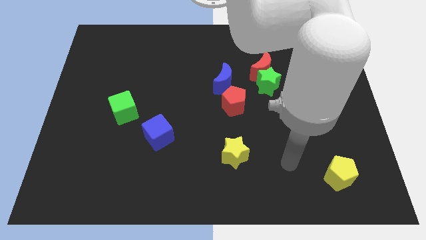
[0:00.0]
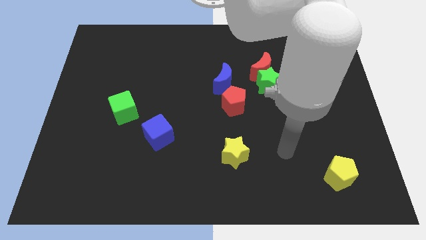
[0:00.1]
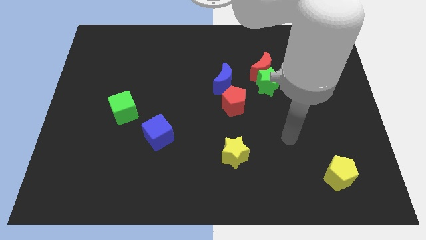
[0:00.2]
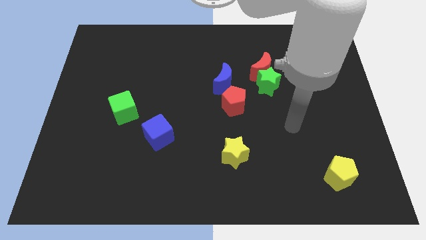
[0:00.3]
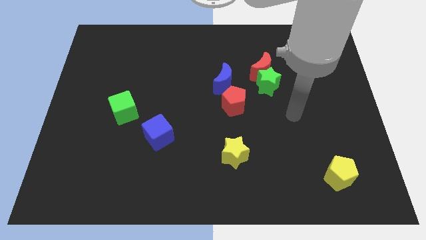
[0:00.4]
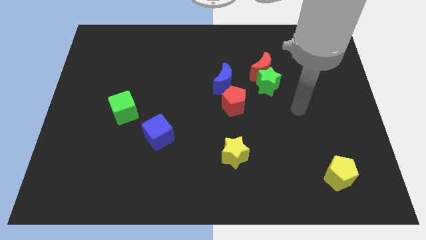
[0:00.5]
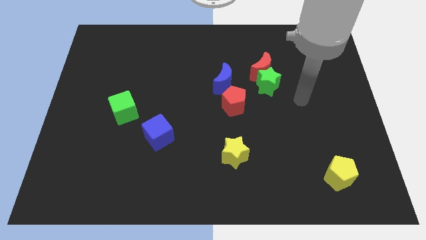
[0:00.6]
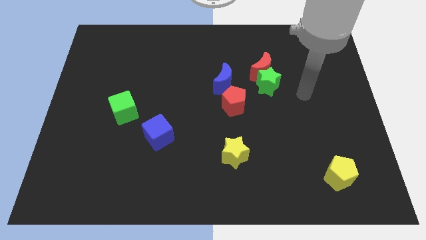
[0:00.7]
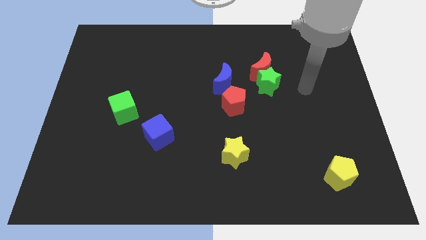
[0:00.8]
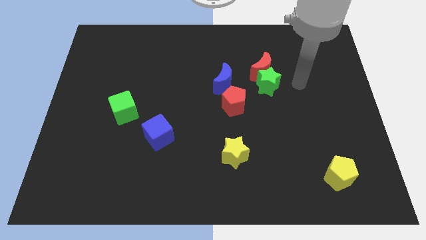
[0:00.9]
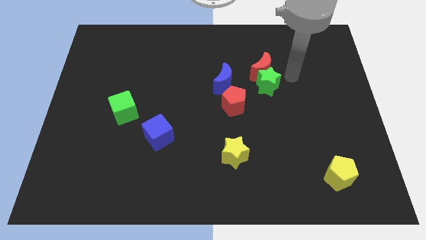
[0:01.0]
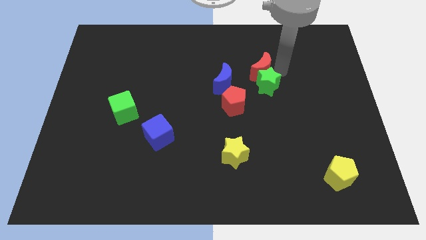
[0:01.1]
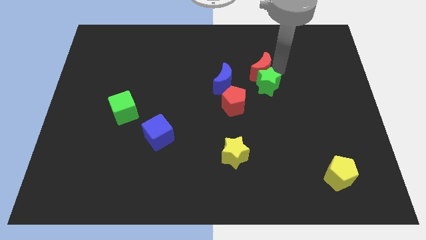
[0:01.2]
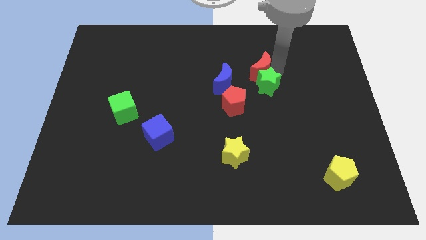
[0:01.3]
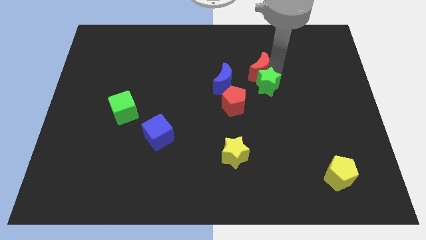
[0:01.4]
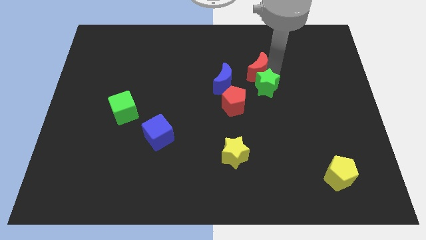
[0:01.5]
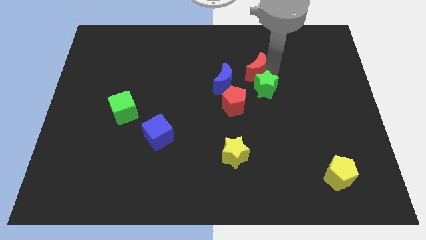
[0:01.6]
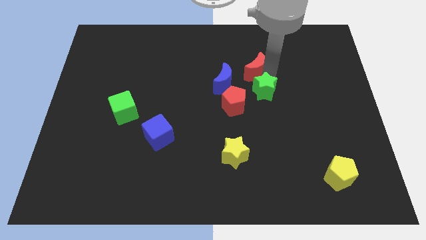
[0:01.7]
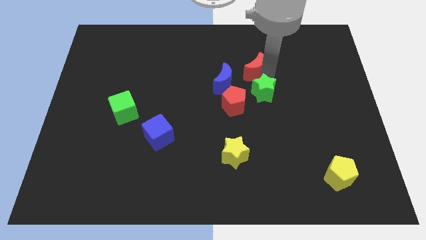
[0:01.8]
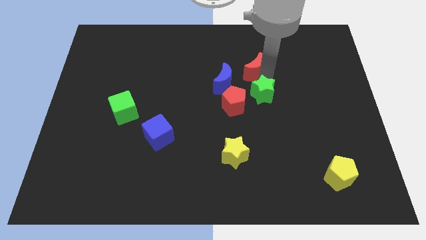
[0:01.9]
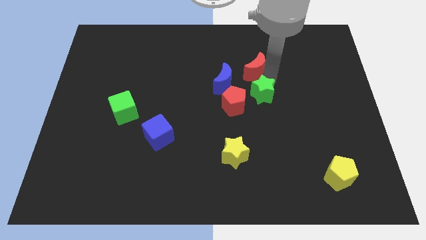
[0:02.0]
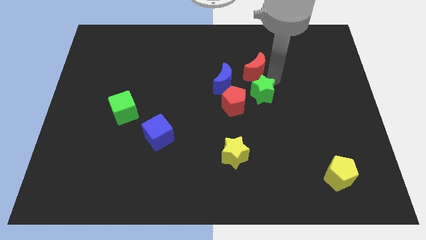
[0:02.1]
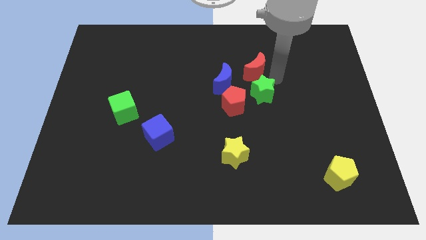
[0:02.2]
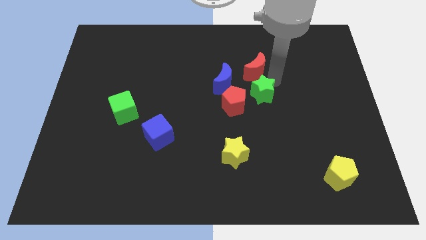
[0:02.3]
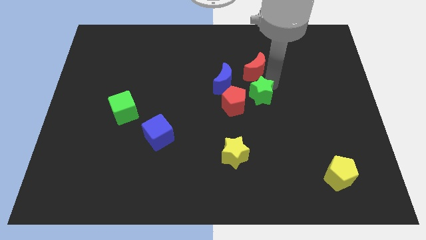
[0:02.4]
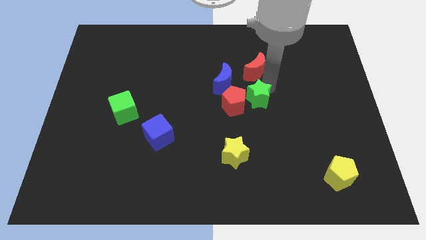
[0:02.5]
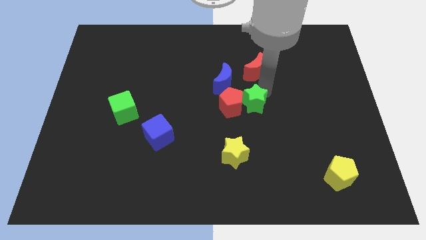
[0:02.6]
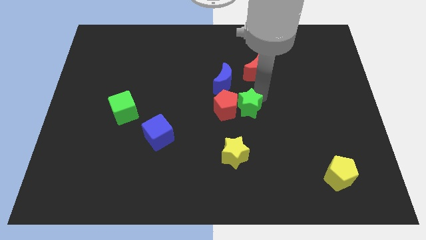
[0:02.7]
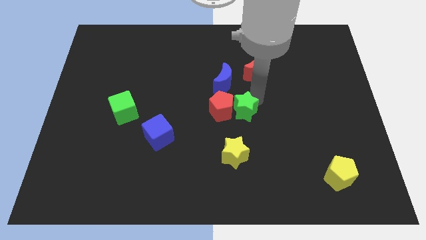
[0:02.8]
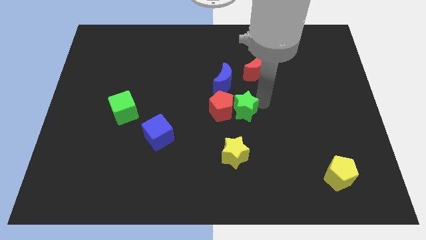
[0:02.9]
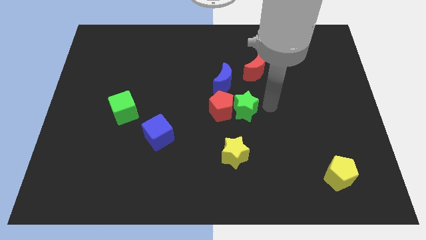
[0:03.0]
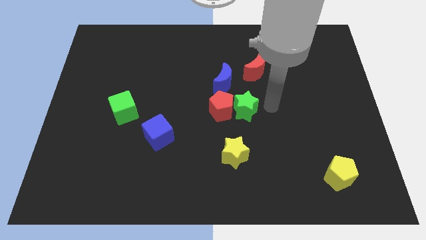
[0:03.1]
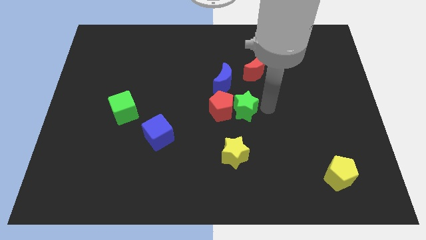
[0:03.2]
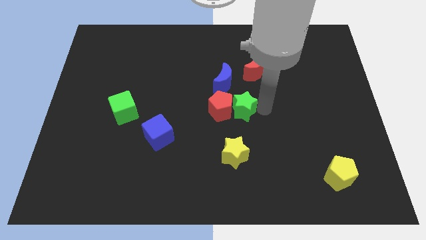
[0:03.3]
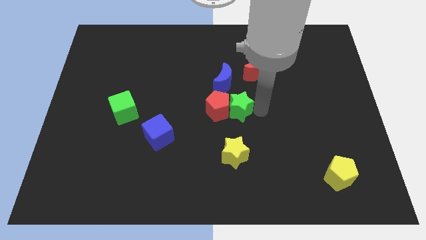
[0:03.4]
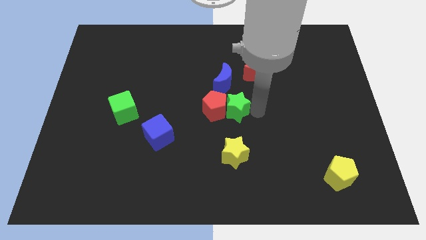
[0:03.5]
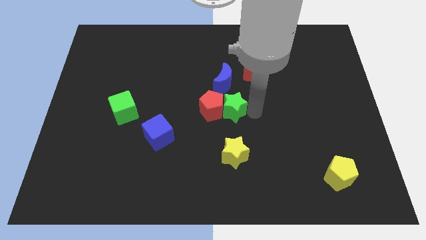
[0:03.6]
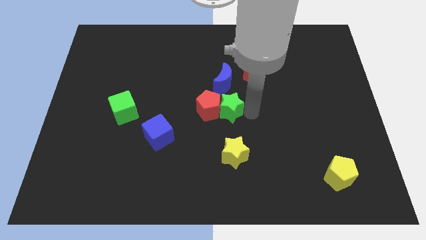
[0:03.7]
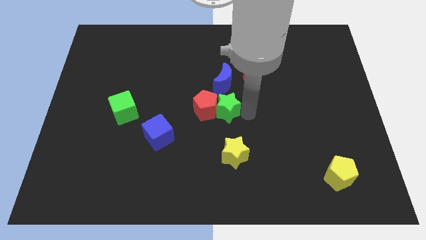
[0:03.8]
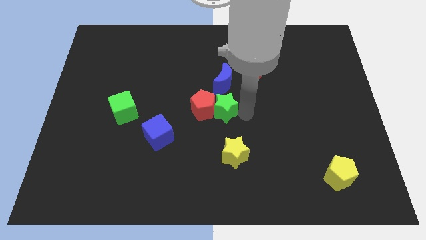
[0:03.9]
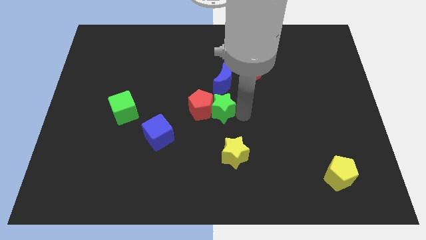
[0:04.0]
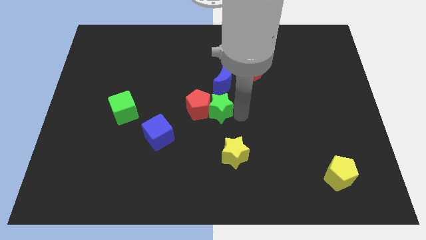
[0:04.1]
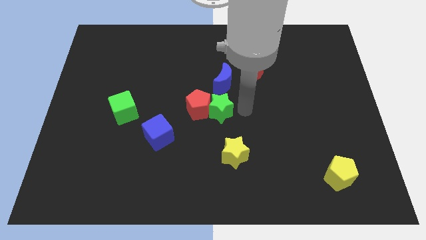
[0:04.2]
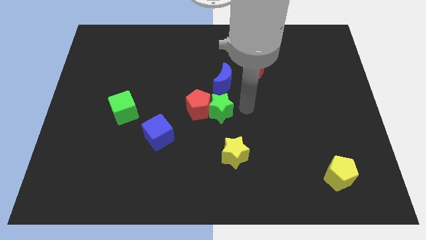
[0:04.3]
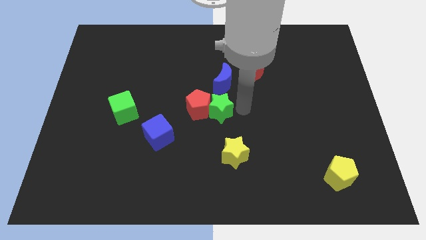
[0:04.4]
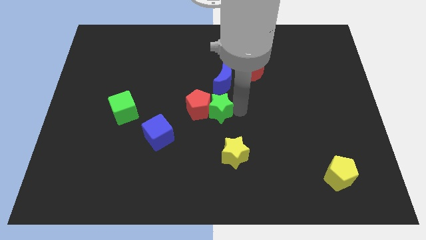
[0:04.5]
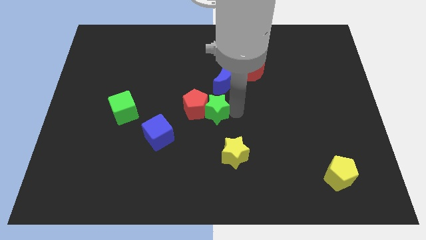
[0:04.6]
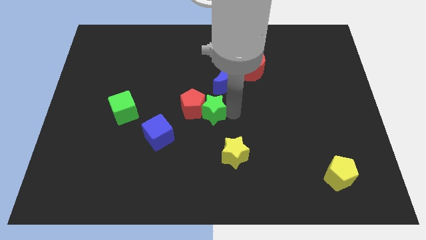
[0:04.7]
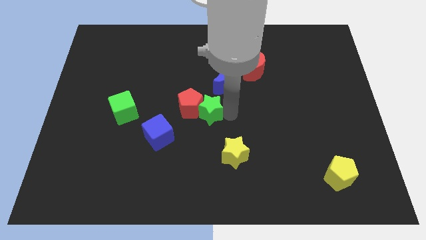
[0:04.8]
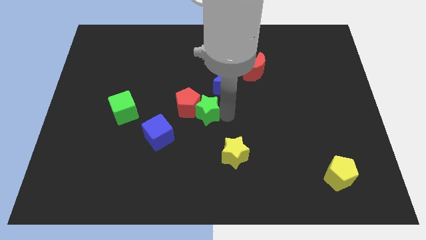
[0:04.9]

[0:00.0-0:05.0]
move the green star diagonally up and to the right of the blue cube

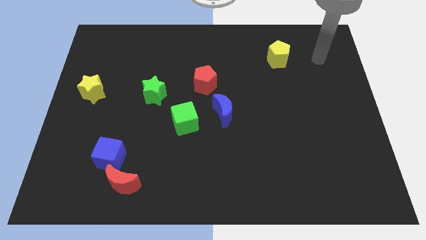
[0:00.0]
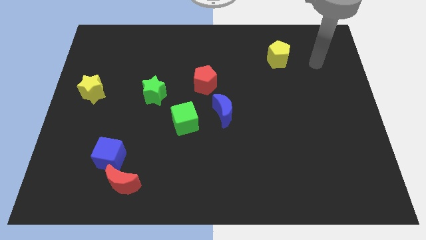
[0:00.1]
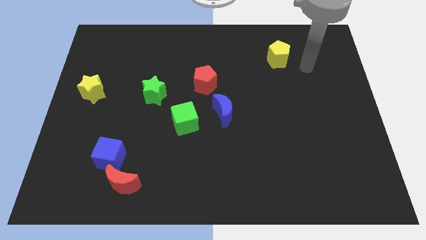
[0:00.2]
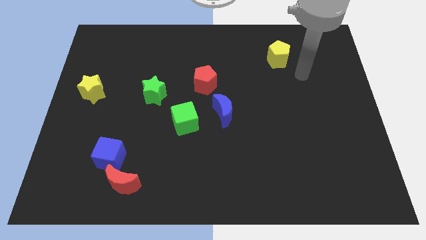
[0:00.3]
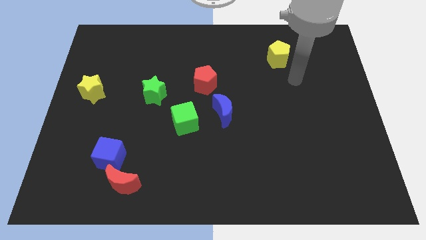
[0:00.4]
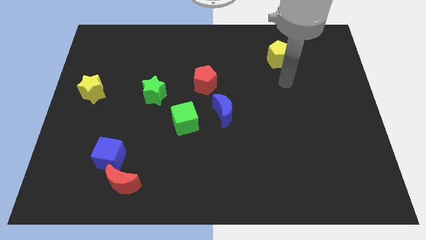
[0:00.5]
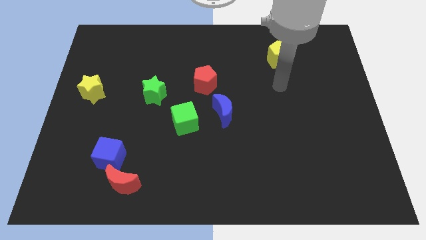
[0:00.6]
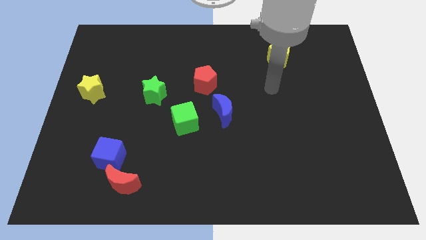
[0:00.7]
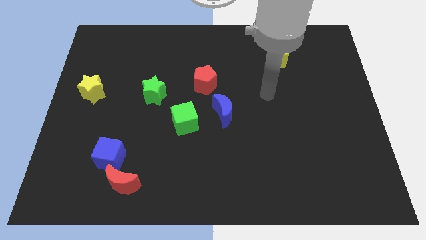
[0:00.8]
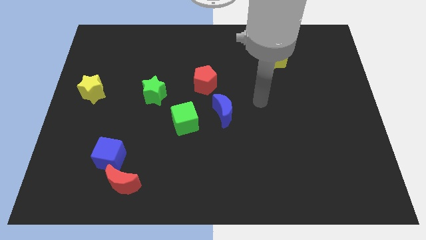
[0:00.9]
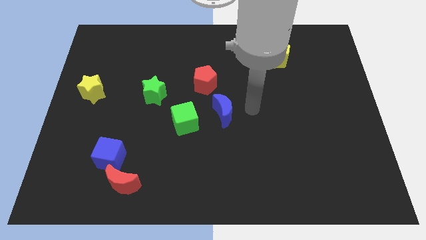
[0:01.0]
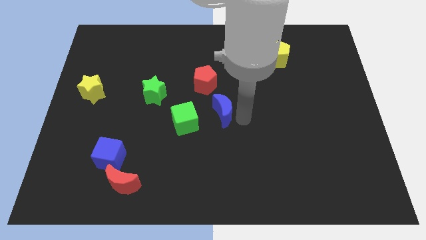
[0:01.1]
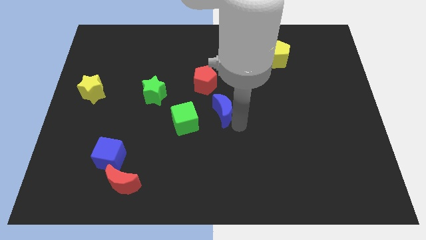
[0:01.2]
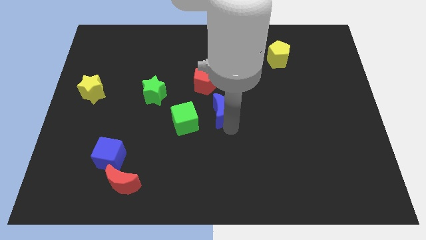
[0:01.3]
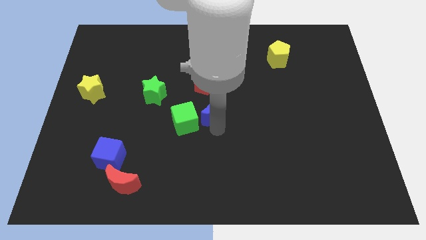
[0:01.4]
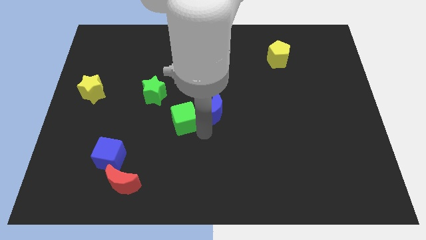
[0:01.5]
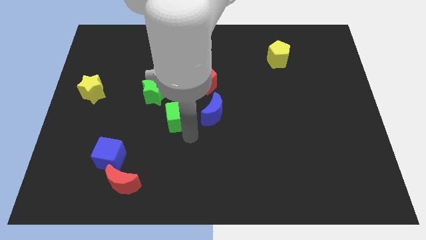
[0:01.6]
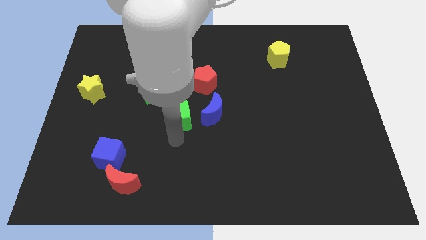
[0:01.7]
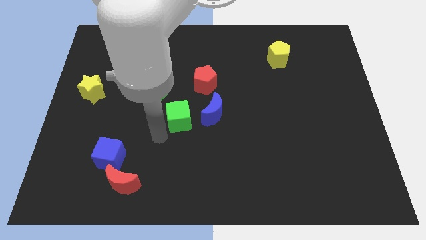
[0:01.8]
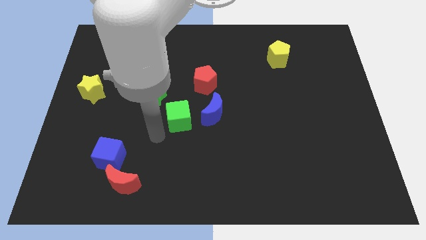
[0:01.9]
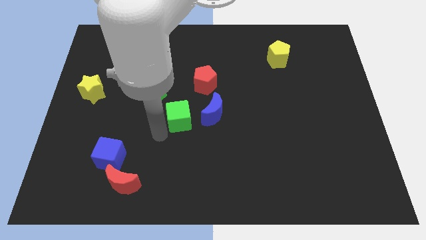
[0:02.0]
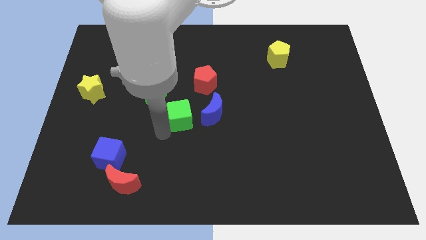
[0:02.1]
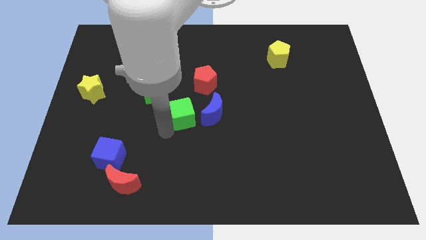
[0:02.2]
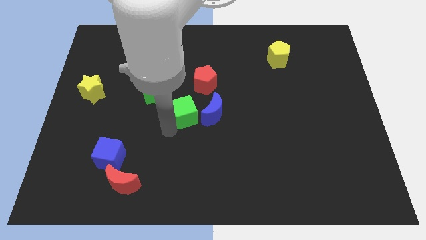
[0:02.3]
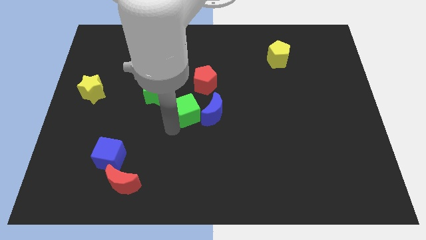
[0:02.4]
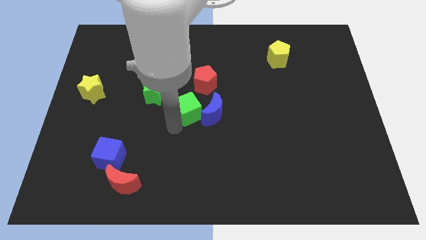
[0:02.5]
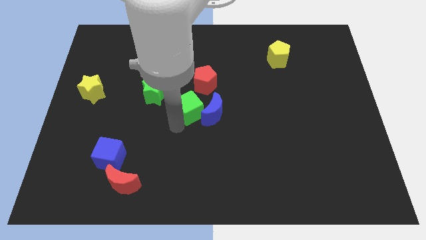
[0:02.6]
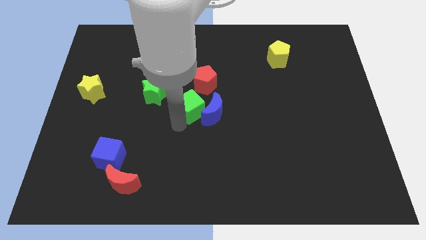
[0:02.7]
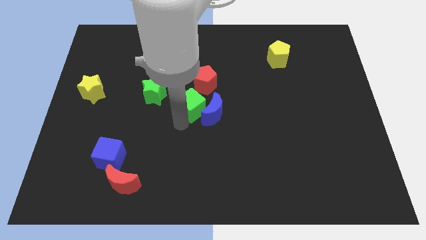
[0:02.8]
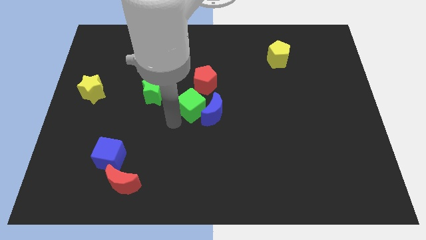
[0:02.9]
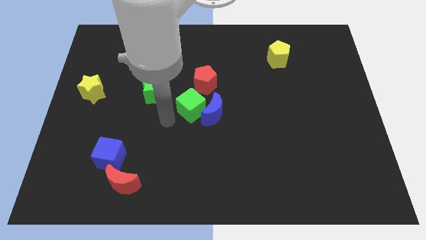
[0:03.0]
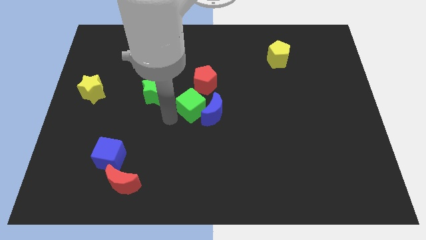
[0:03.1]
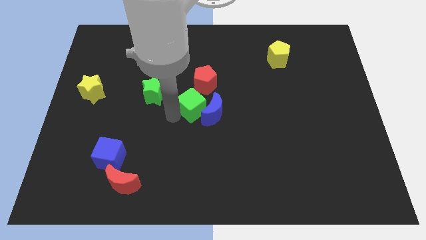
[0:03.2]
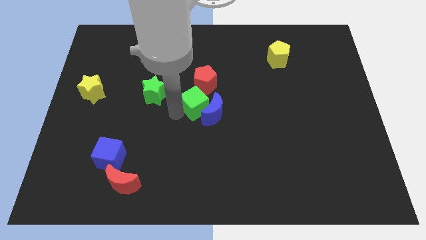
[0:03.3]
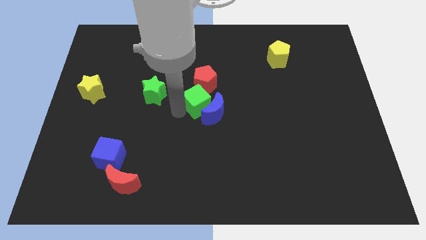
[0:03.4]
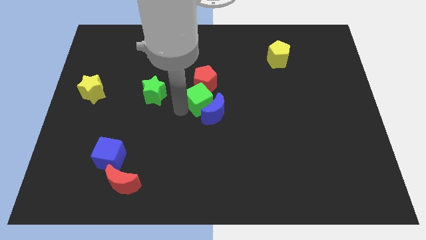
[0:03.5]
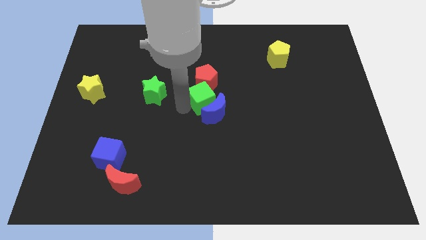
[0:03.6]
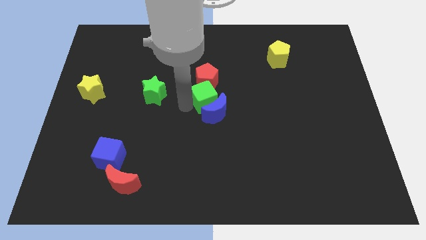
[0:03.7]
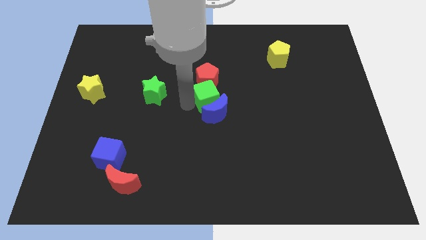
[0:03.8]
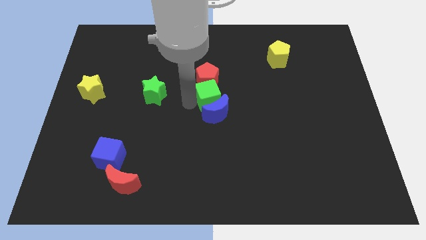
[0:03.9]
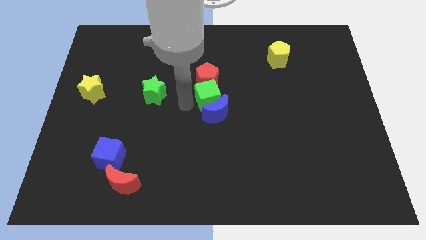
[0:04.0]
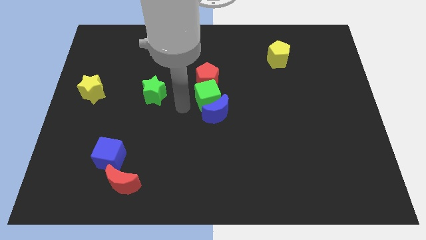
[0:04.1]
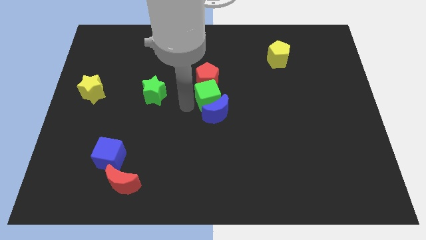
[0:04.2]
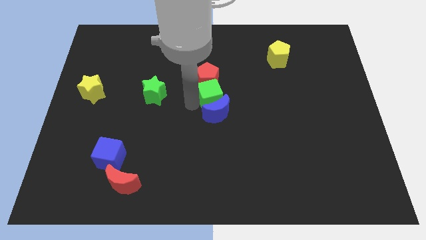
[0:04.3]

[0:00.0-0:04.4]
slide the green cube to the top right of the blue moon
